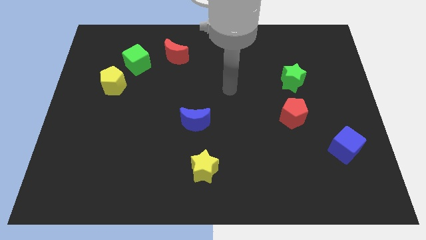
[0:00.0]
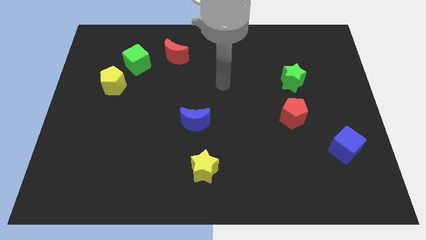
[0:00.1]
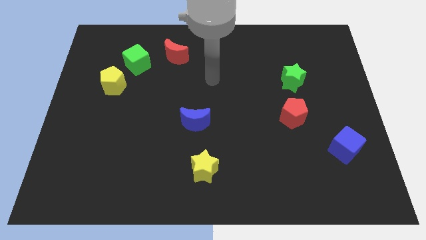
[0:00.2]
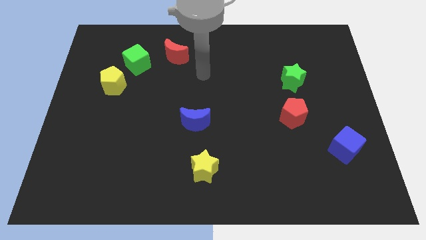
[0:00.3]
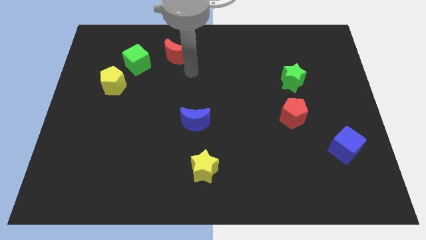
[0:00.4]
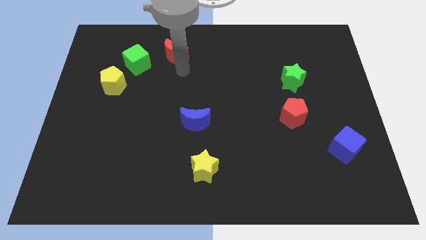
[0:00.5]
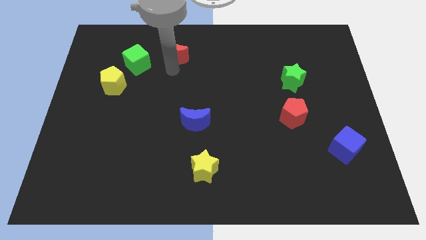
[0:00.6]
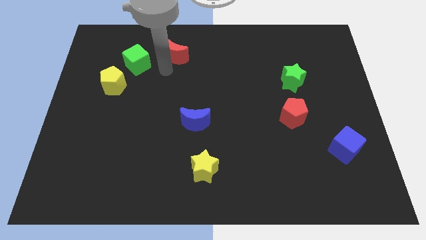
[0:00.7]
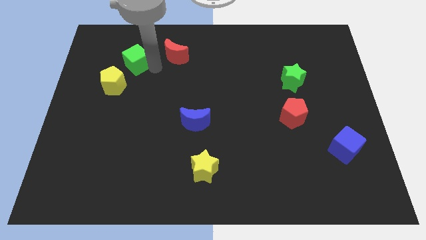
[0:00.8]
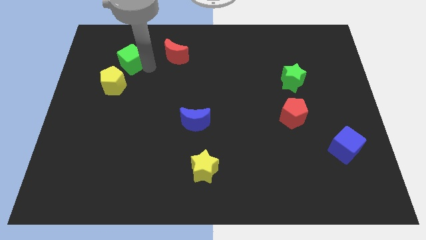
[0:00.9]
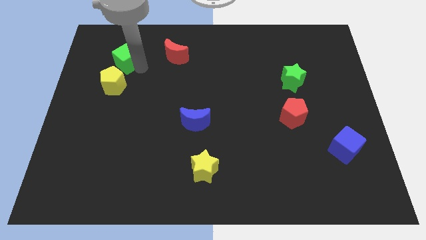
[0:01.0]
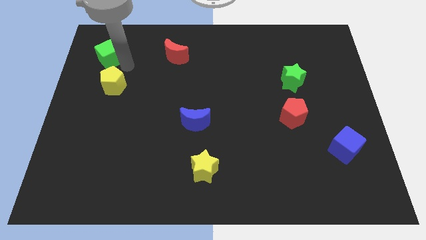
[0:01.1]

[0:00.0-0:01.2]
separate the yellow pentagon from the green cube

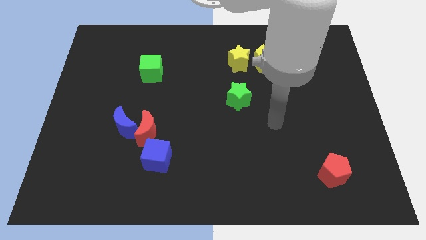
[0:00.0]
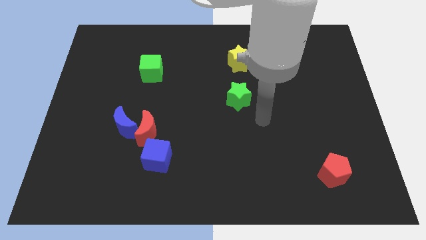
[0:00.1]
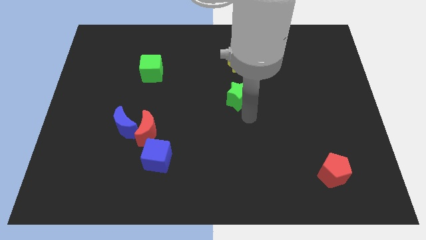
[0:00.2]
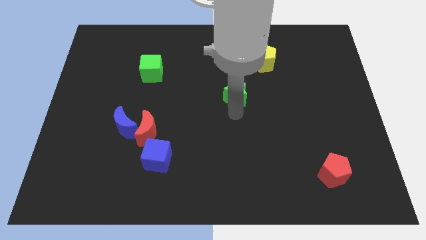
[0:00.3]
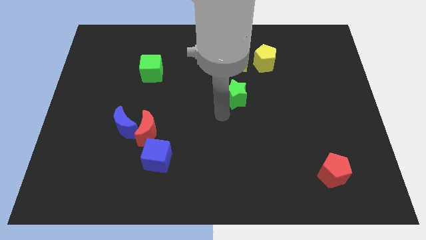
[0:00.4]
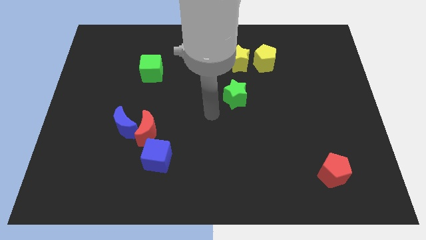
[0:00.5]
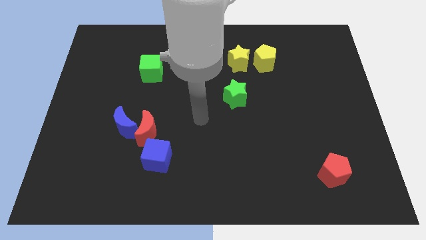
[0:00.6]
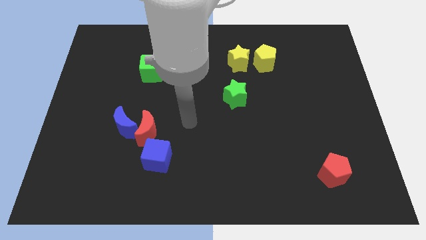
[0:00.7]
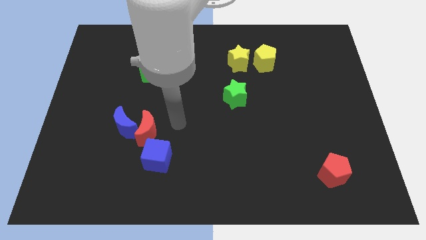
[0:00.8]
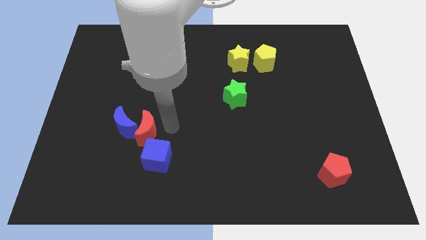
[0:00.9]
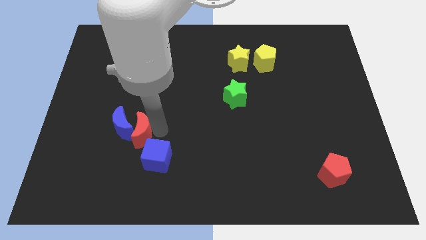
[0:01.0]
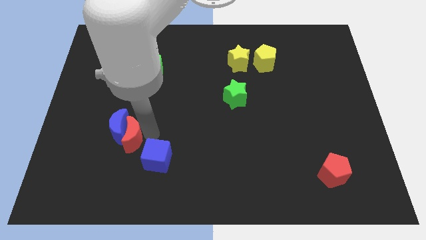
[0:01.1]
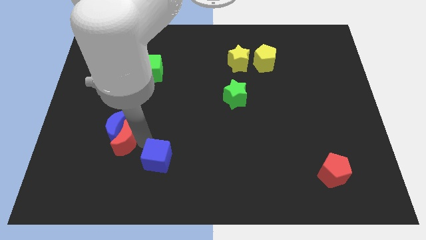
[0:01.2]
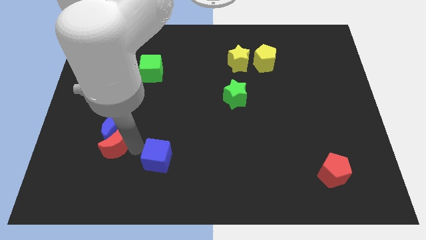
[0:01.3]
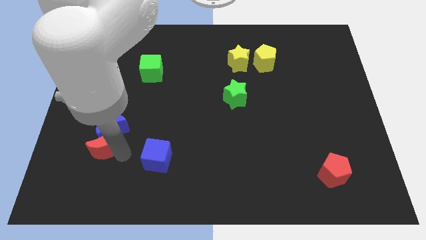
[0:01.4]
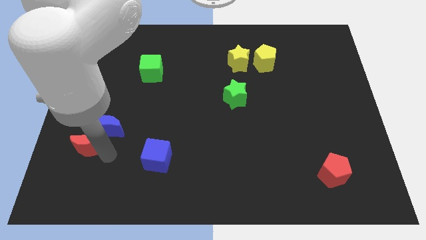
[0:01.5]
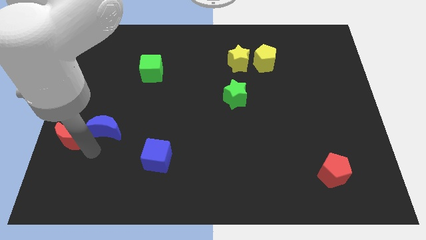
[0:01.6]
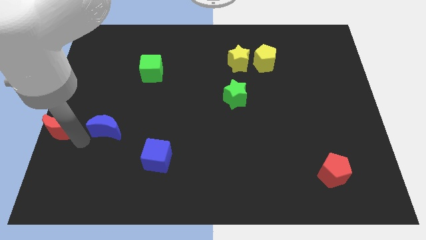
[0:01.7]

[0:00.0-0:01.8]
move the blue moon away from the red moon

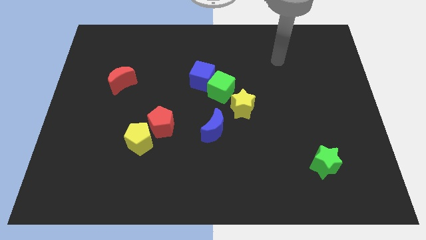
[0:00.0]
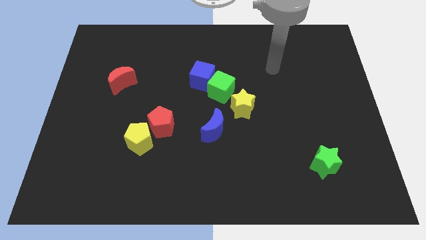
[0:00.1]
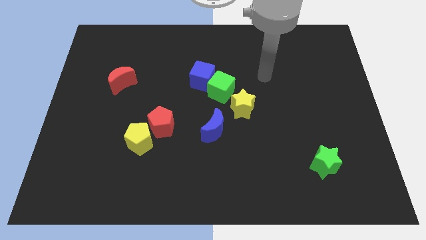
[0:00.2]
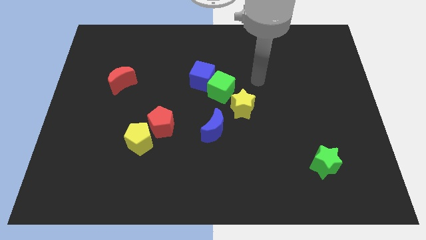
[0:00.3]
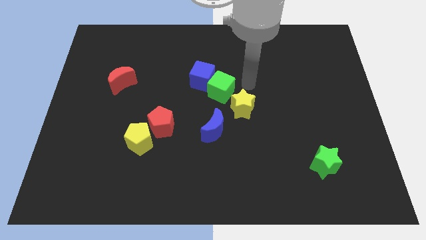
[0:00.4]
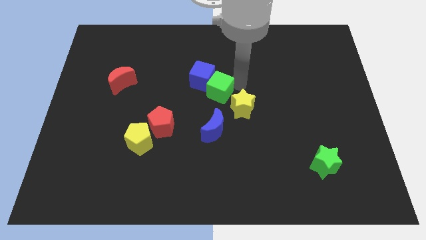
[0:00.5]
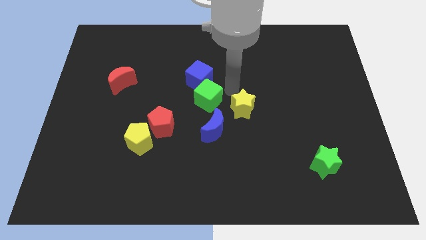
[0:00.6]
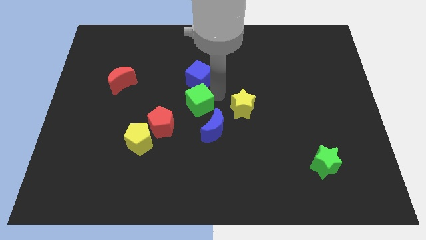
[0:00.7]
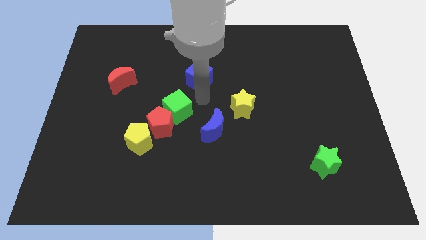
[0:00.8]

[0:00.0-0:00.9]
separate the blue cube from the green cube

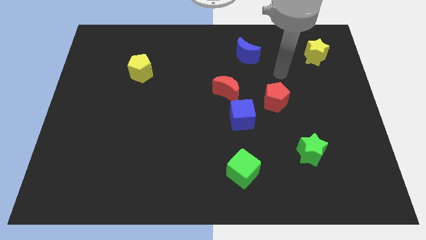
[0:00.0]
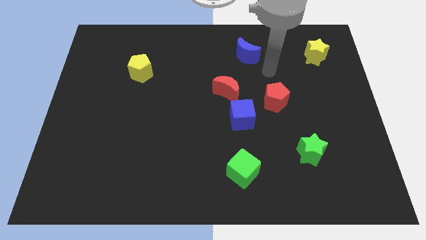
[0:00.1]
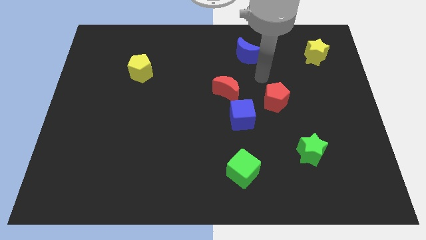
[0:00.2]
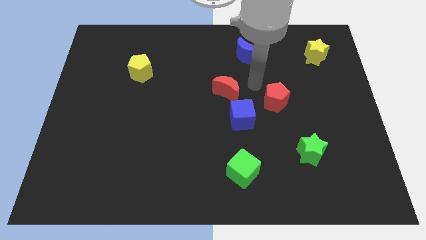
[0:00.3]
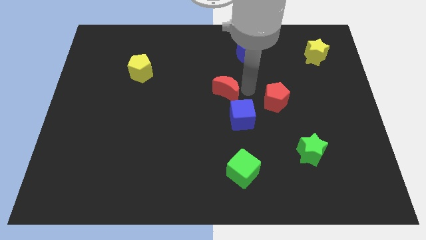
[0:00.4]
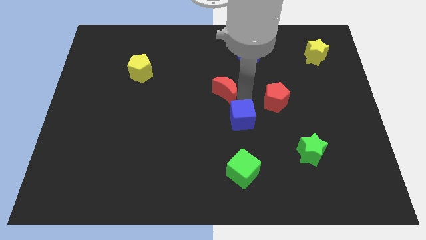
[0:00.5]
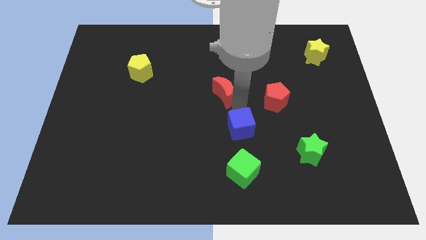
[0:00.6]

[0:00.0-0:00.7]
separate the red moon from the blue cube

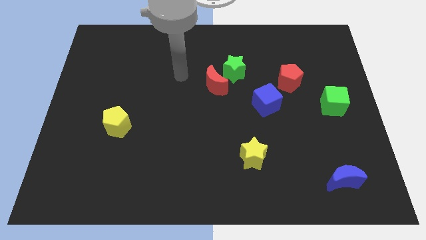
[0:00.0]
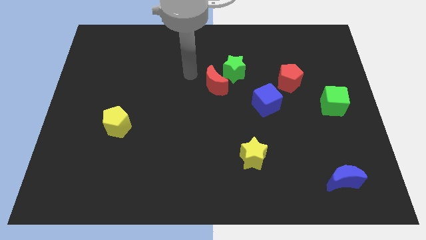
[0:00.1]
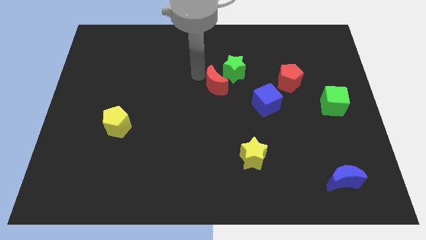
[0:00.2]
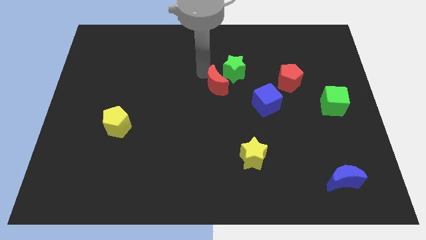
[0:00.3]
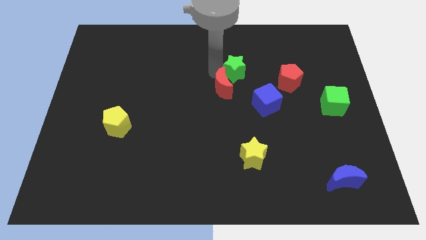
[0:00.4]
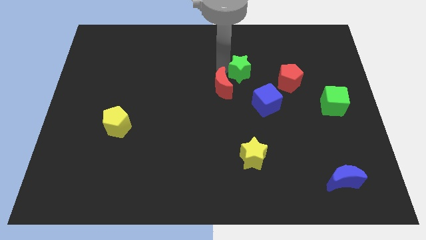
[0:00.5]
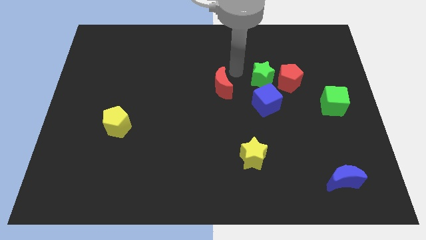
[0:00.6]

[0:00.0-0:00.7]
move the red moon away from the green star

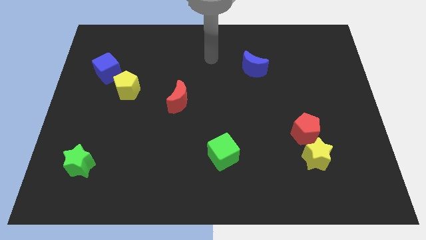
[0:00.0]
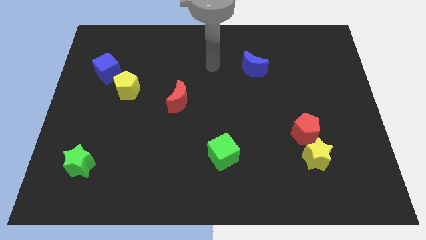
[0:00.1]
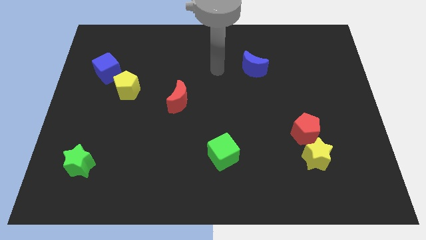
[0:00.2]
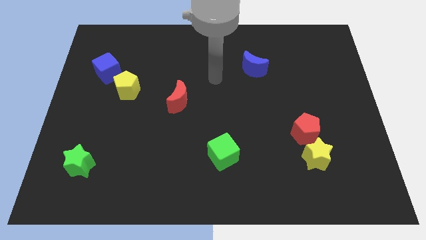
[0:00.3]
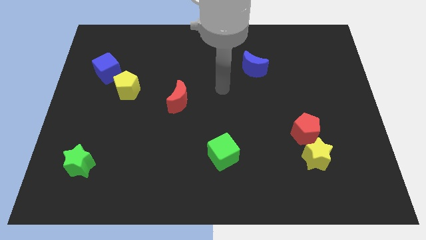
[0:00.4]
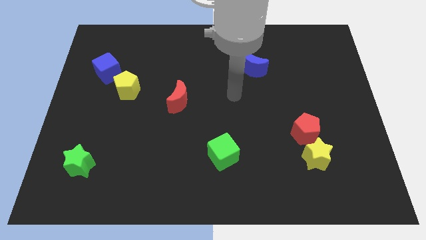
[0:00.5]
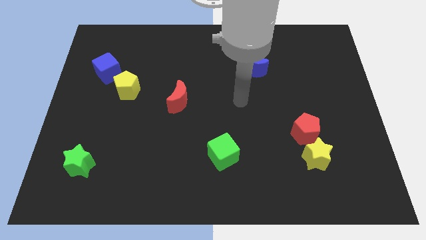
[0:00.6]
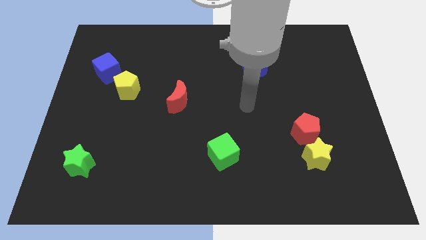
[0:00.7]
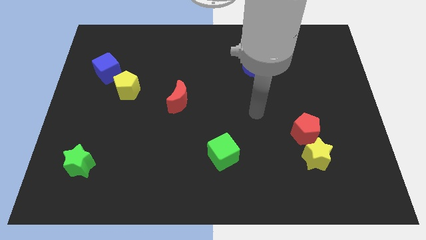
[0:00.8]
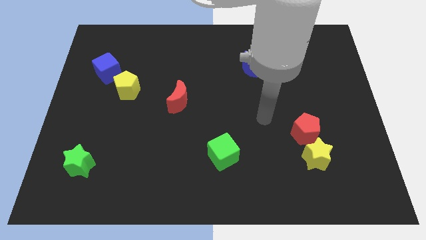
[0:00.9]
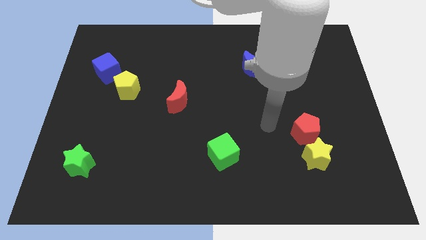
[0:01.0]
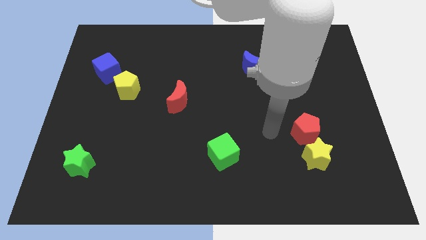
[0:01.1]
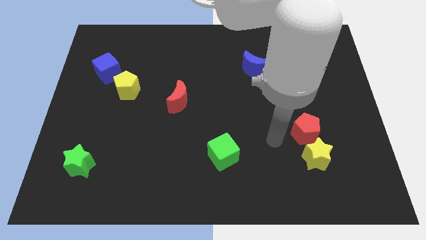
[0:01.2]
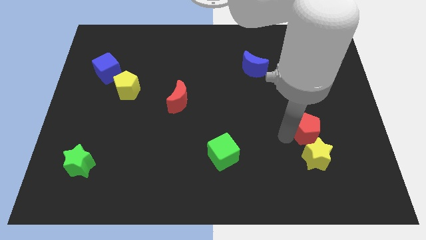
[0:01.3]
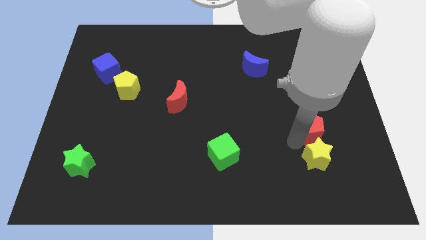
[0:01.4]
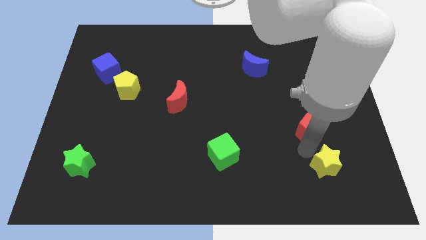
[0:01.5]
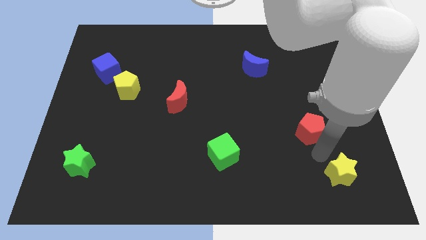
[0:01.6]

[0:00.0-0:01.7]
pull the red pentagon apart from the yellow star

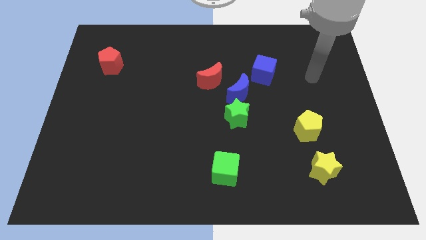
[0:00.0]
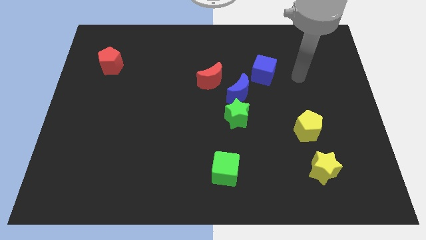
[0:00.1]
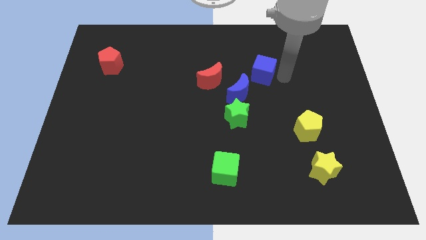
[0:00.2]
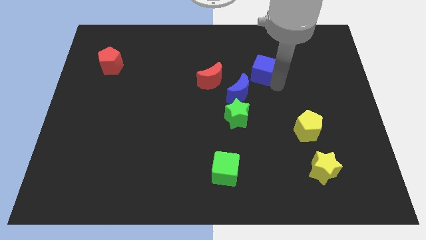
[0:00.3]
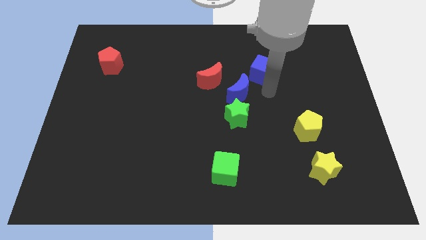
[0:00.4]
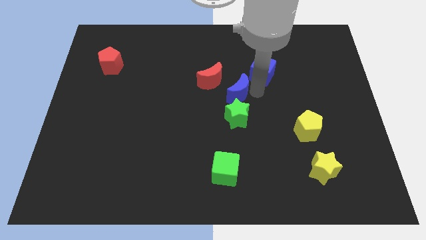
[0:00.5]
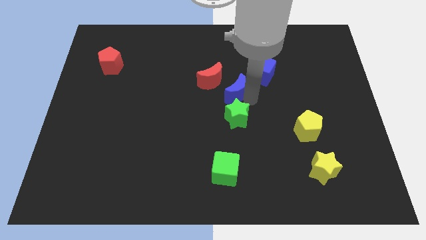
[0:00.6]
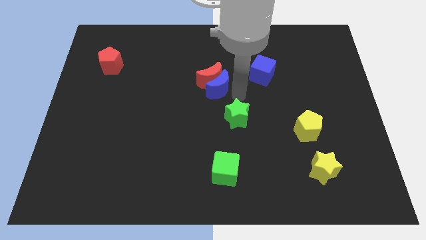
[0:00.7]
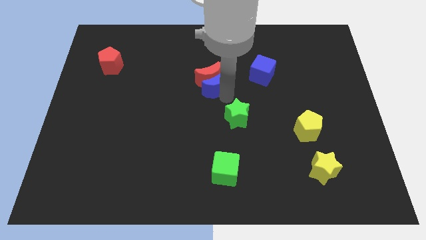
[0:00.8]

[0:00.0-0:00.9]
separate the green star from the blue moon

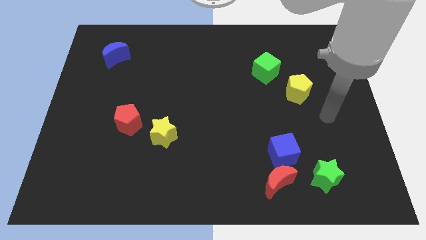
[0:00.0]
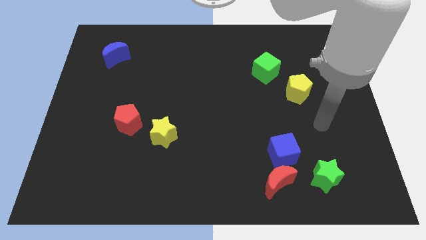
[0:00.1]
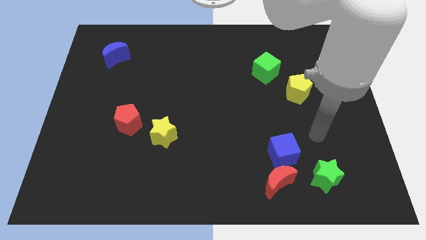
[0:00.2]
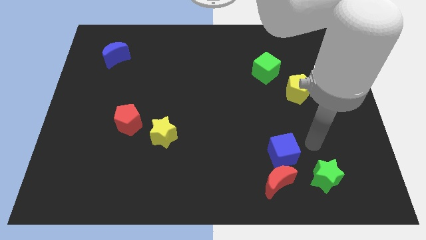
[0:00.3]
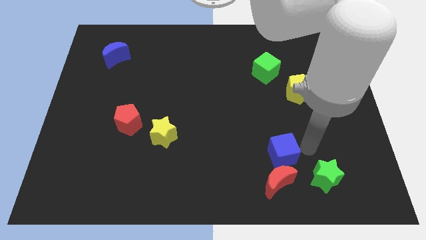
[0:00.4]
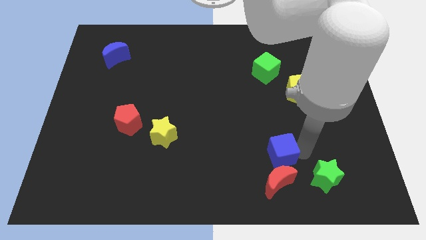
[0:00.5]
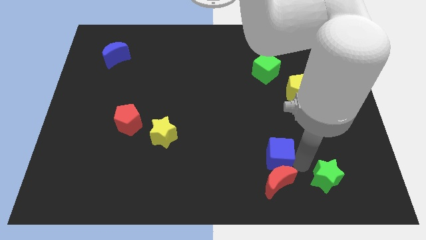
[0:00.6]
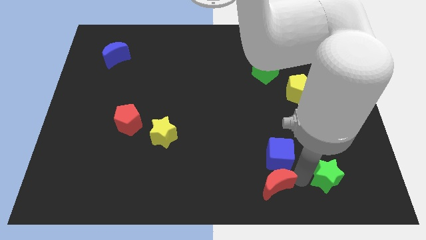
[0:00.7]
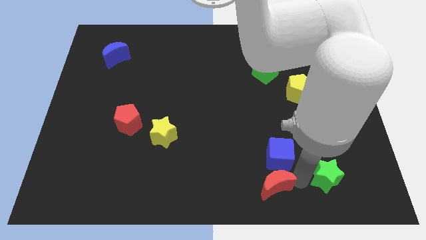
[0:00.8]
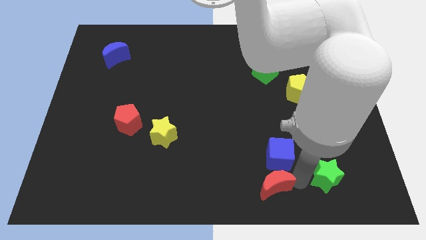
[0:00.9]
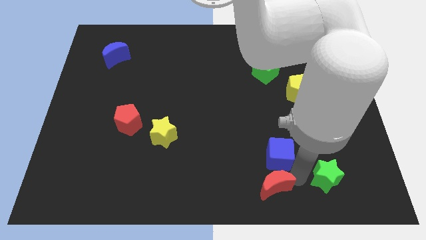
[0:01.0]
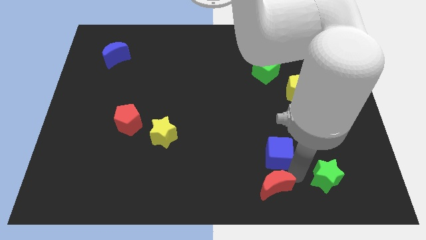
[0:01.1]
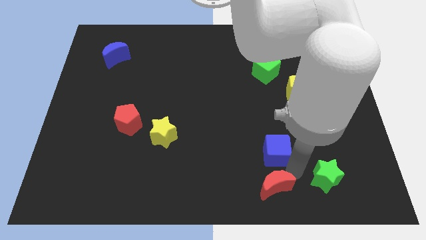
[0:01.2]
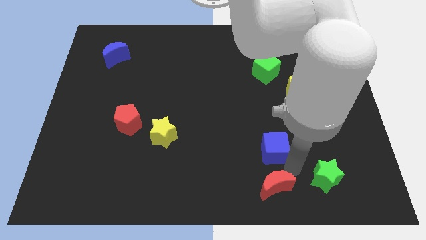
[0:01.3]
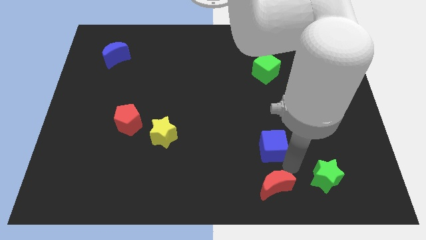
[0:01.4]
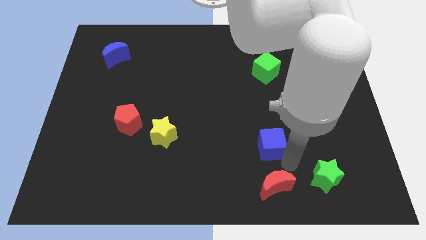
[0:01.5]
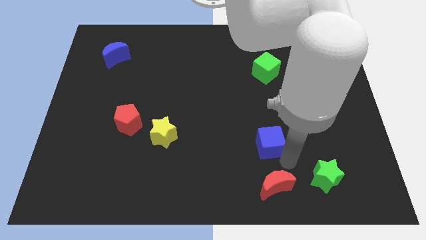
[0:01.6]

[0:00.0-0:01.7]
move the blue cube away from the red moon and green star
